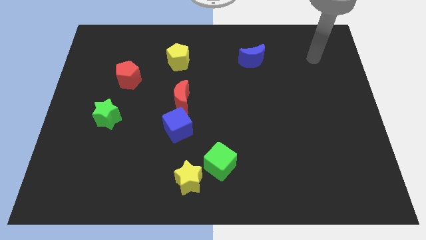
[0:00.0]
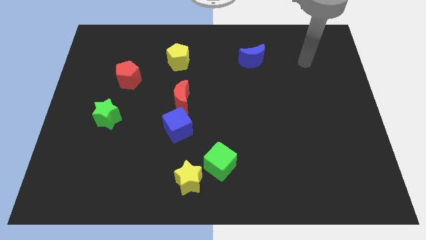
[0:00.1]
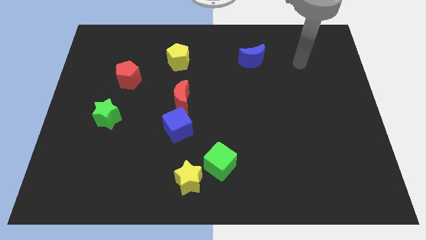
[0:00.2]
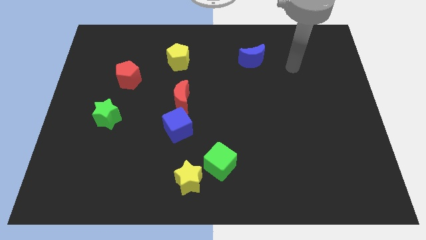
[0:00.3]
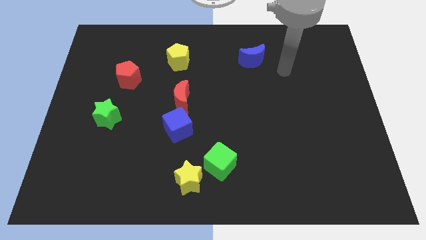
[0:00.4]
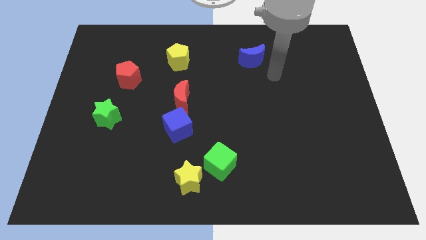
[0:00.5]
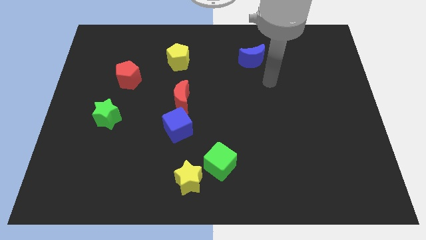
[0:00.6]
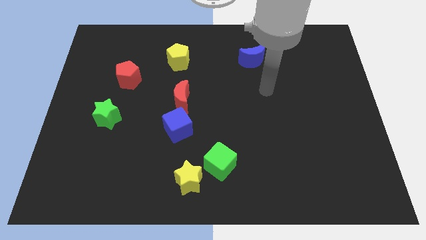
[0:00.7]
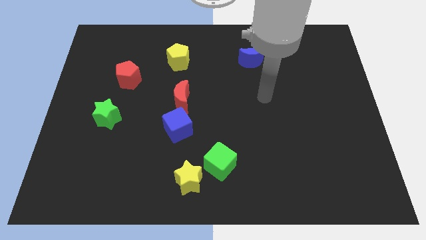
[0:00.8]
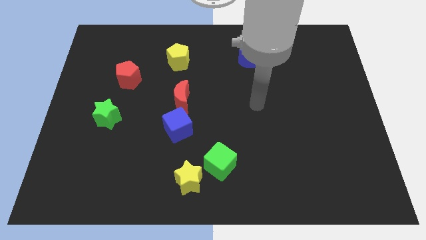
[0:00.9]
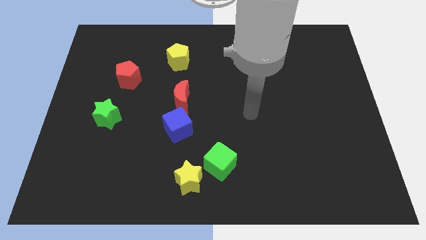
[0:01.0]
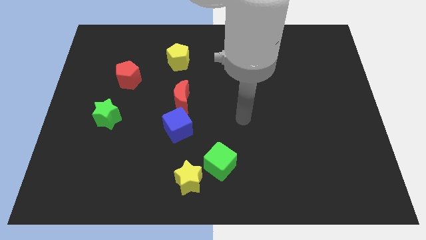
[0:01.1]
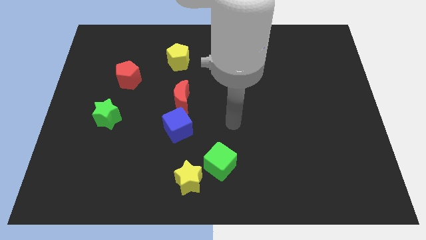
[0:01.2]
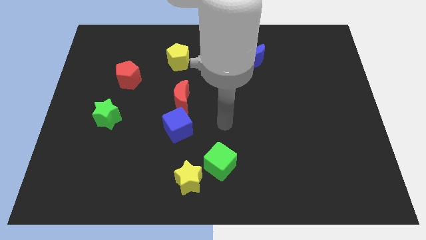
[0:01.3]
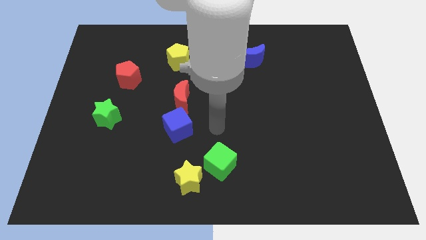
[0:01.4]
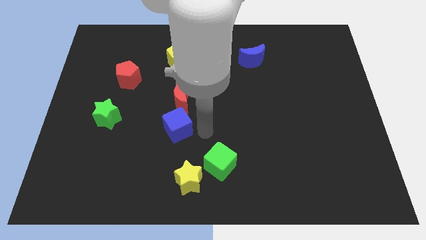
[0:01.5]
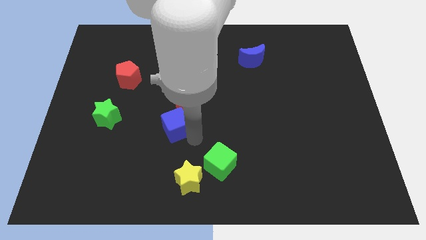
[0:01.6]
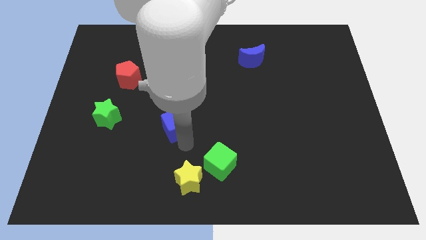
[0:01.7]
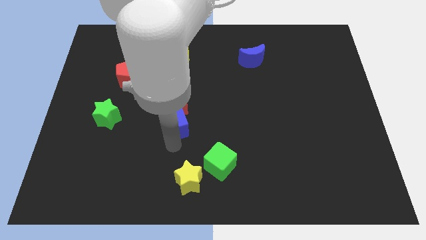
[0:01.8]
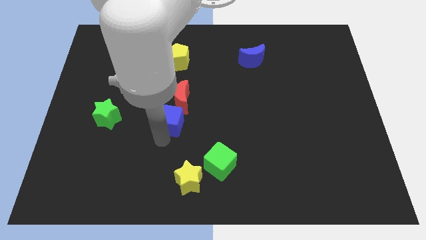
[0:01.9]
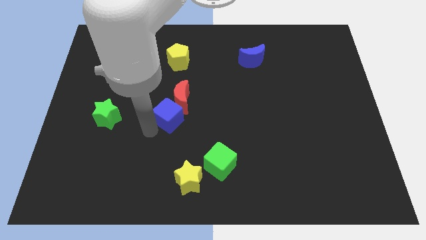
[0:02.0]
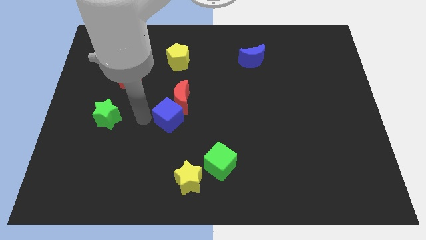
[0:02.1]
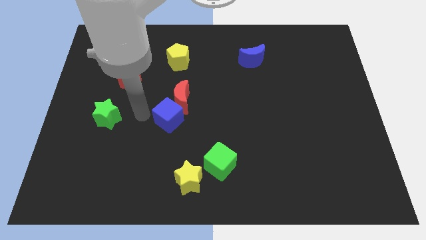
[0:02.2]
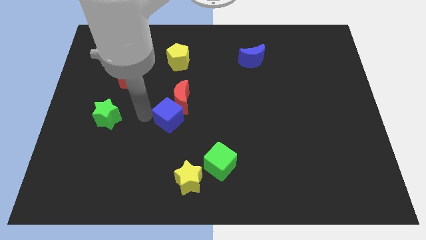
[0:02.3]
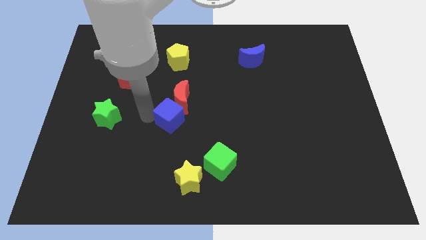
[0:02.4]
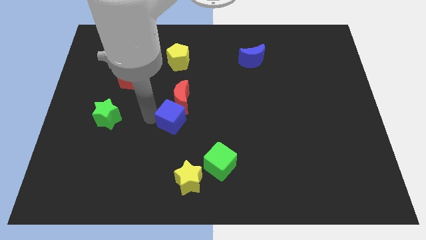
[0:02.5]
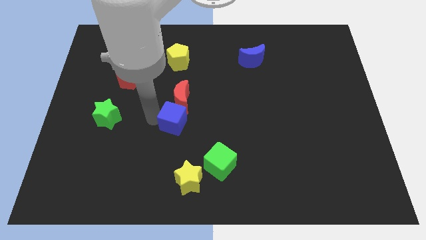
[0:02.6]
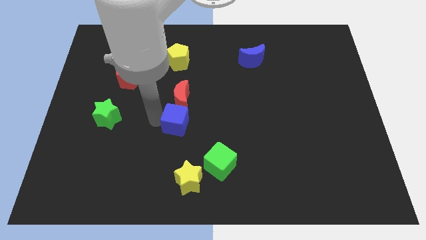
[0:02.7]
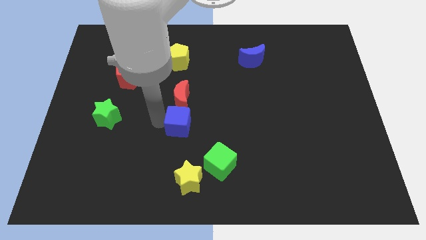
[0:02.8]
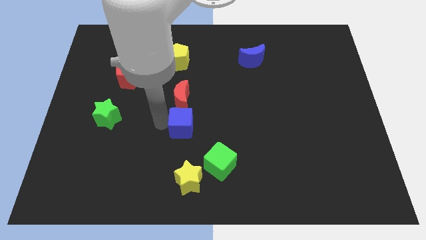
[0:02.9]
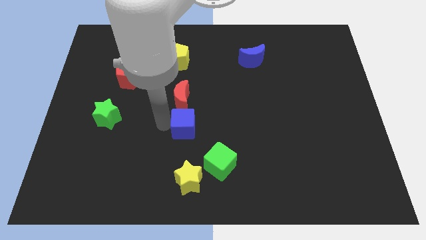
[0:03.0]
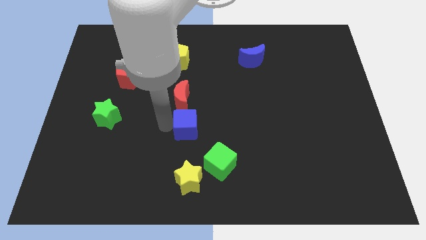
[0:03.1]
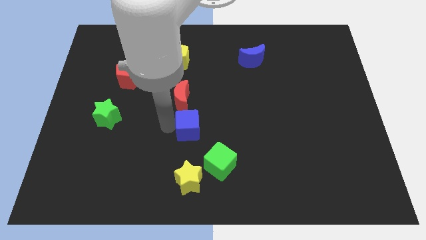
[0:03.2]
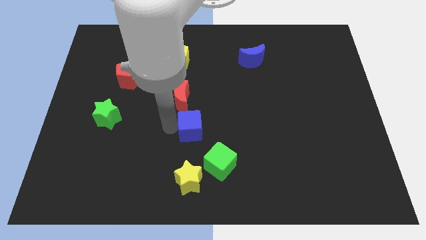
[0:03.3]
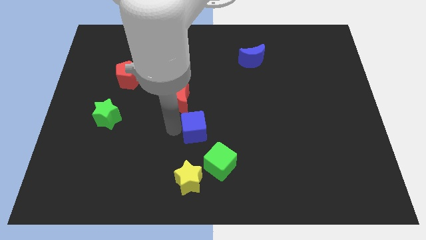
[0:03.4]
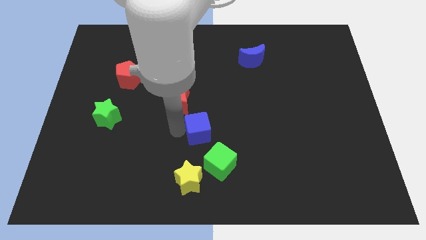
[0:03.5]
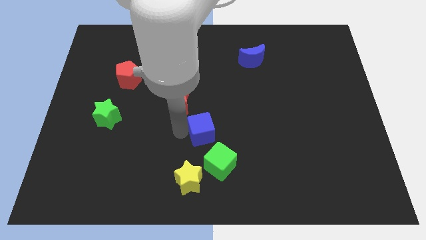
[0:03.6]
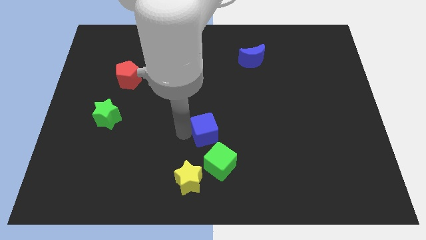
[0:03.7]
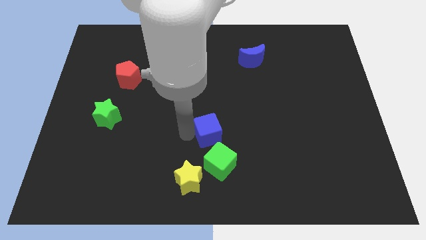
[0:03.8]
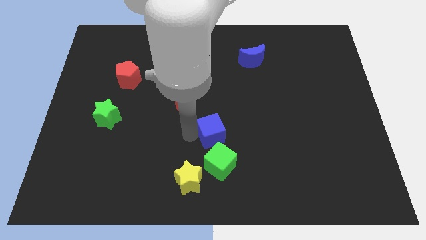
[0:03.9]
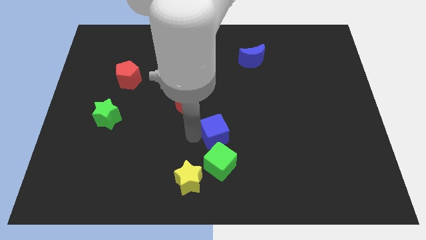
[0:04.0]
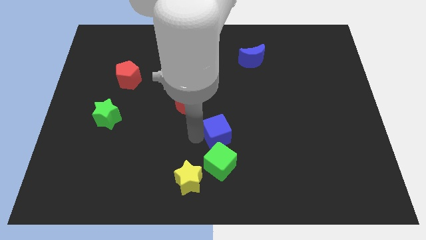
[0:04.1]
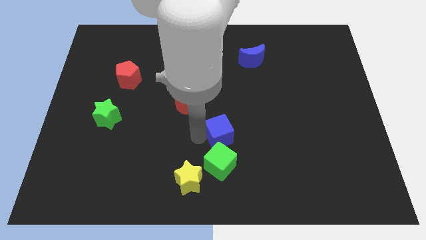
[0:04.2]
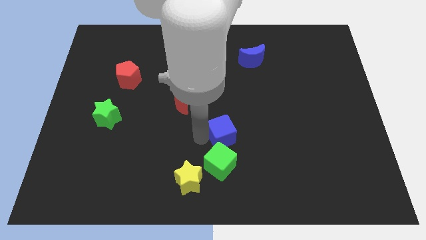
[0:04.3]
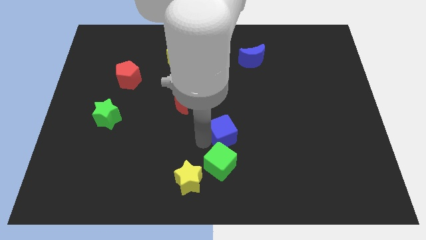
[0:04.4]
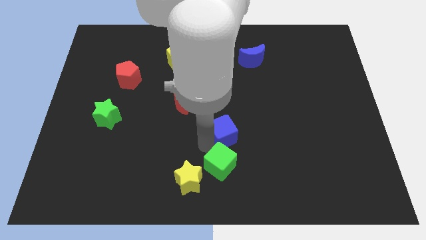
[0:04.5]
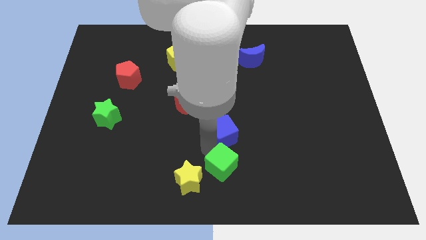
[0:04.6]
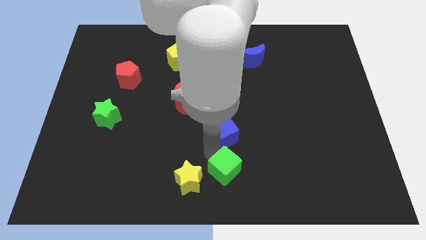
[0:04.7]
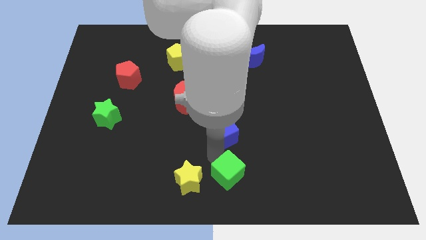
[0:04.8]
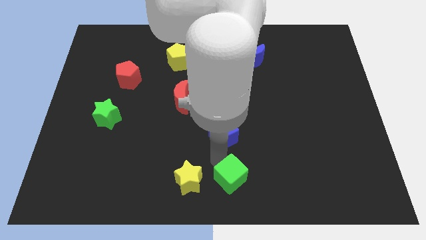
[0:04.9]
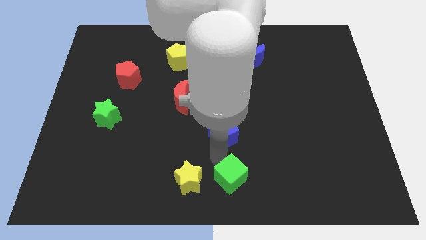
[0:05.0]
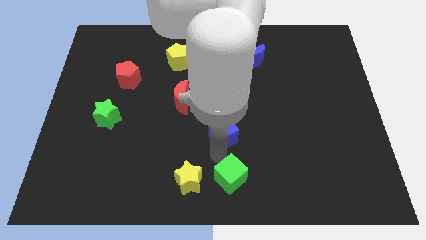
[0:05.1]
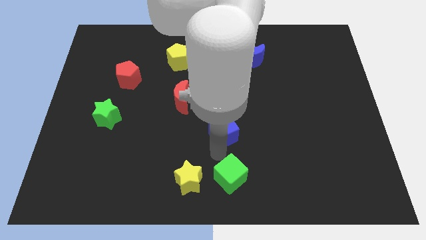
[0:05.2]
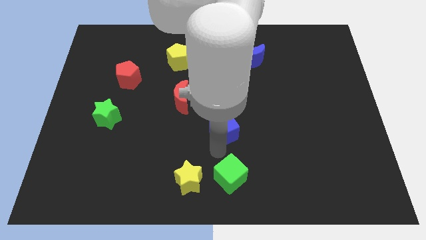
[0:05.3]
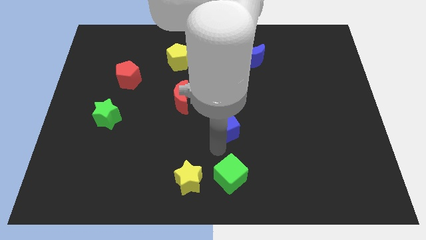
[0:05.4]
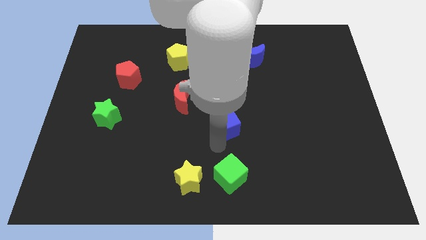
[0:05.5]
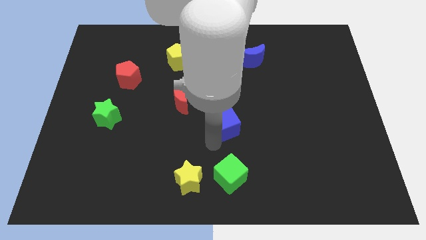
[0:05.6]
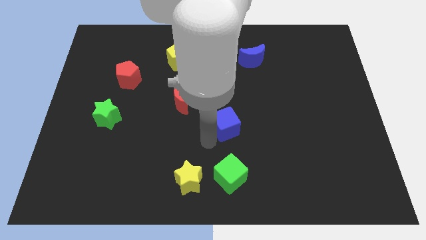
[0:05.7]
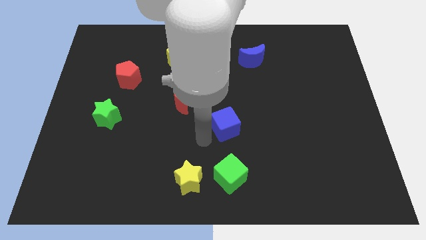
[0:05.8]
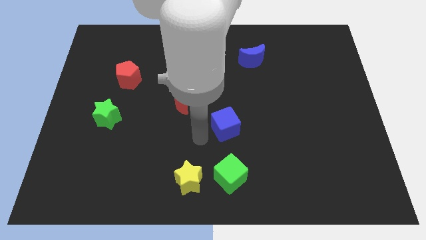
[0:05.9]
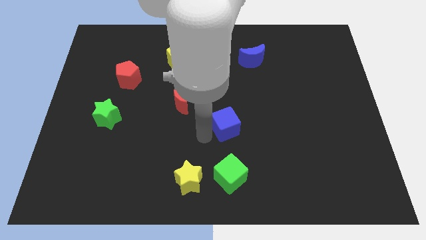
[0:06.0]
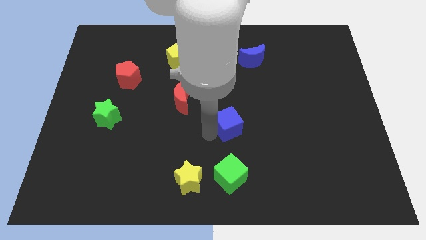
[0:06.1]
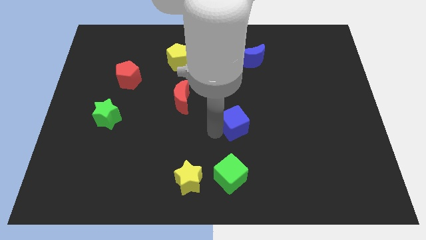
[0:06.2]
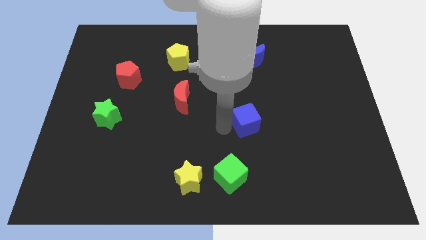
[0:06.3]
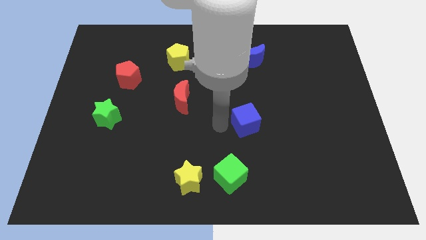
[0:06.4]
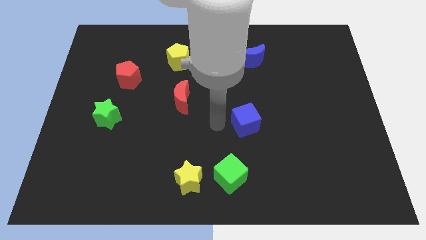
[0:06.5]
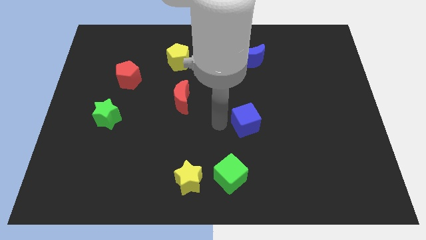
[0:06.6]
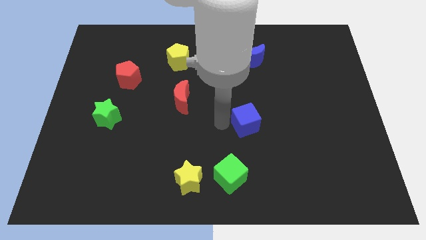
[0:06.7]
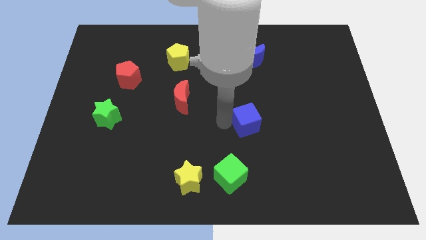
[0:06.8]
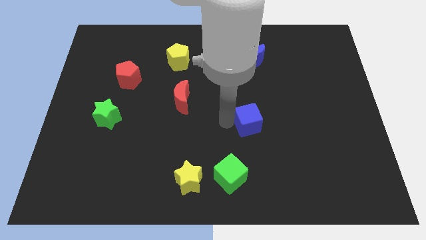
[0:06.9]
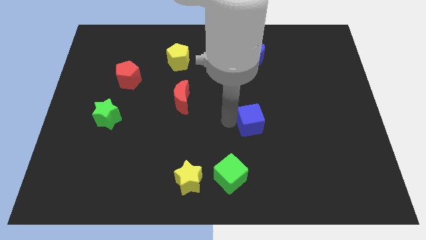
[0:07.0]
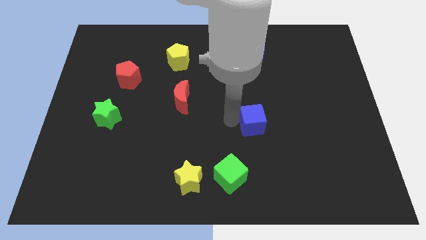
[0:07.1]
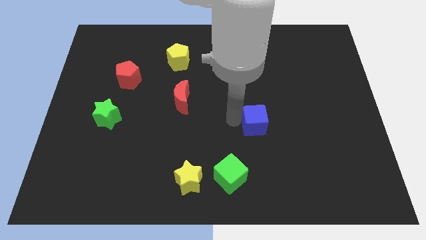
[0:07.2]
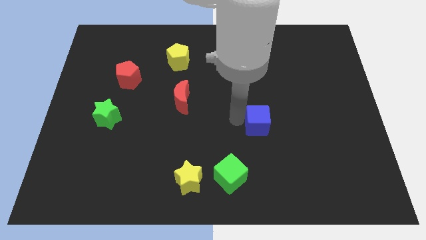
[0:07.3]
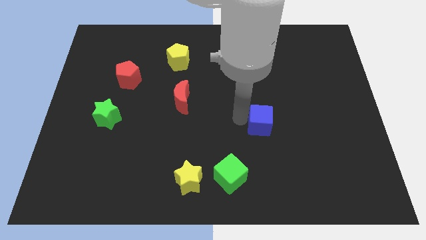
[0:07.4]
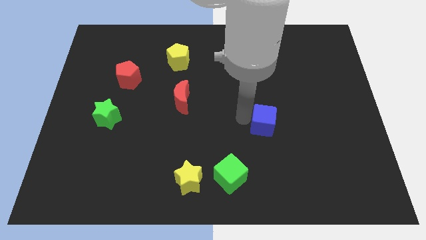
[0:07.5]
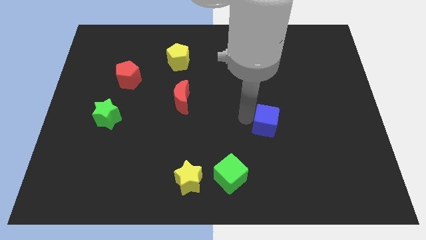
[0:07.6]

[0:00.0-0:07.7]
move the blue cube right

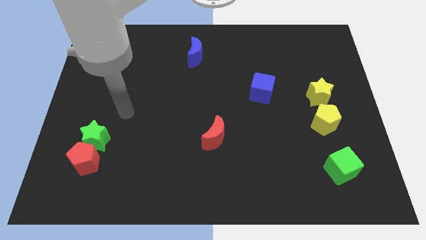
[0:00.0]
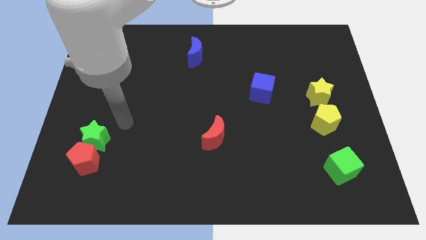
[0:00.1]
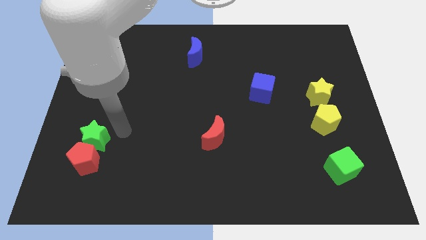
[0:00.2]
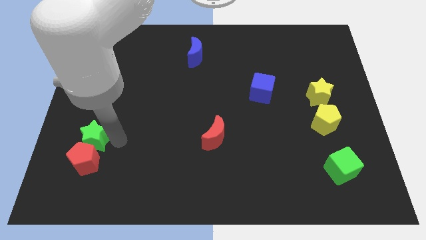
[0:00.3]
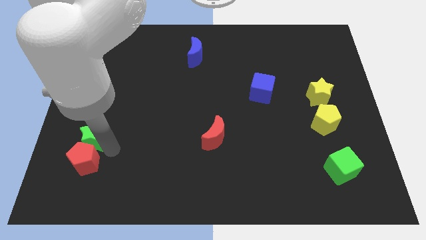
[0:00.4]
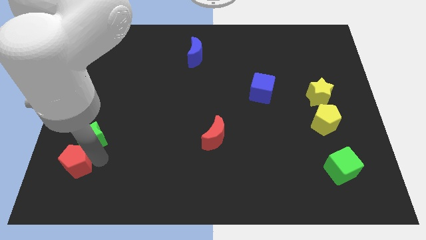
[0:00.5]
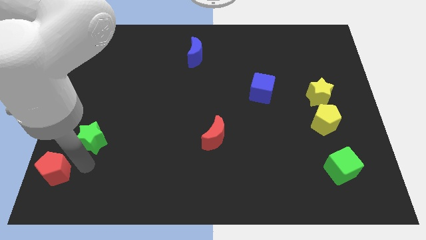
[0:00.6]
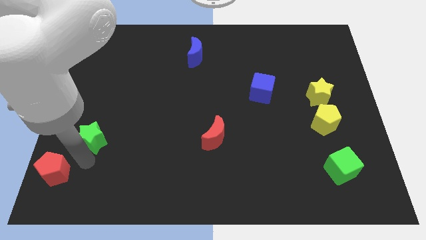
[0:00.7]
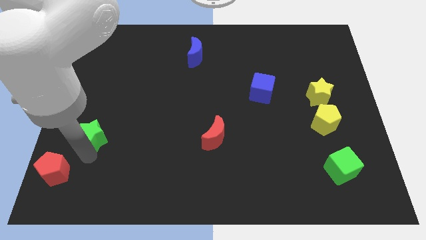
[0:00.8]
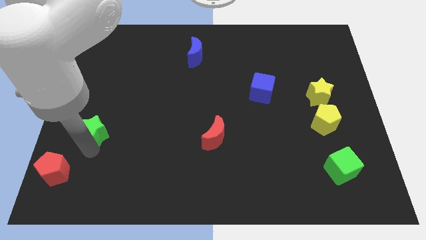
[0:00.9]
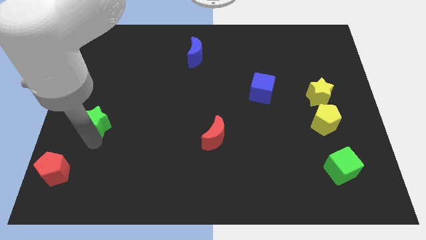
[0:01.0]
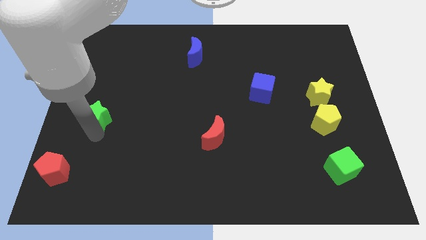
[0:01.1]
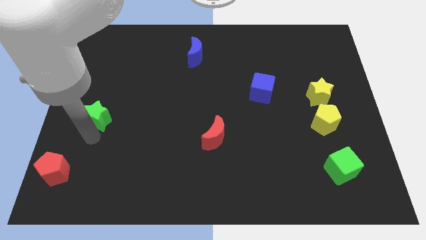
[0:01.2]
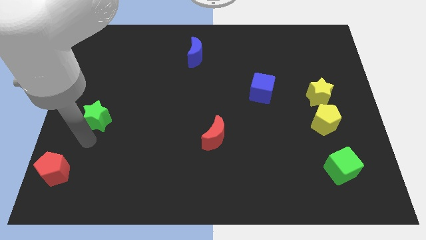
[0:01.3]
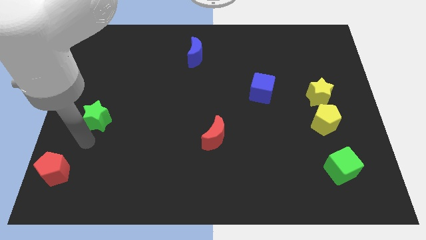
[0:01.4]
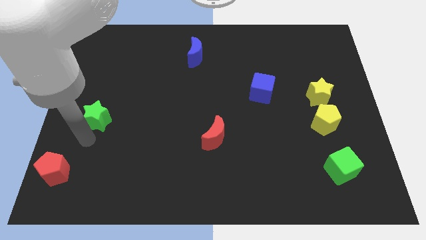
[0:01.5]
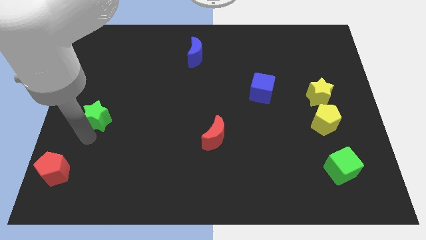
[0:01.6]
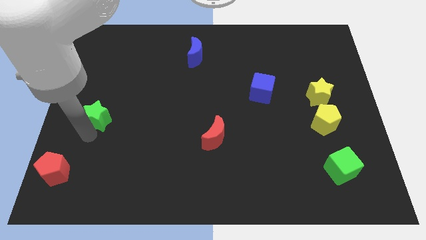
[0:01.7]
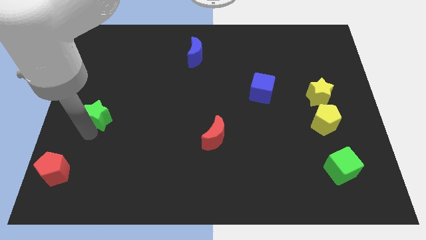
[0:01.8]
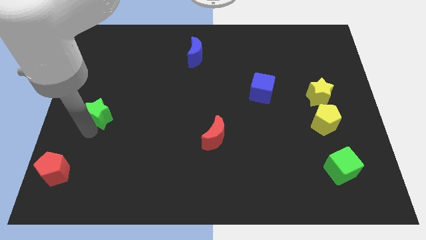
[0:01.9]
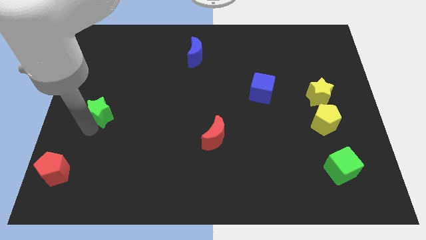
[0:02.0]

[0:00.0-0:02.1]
slightly slide the green star upwards
